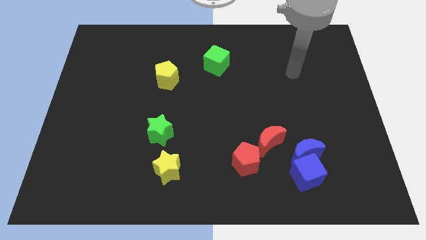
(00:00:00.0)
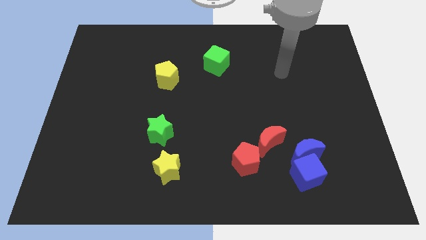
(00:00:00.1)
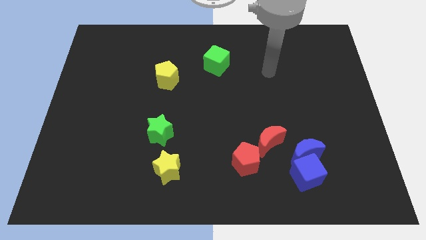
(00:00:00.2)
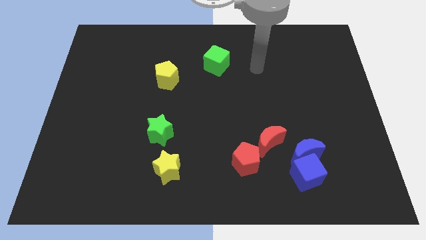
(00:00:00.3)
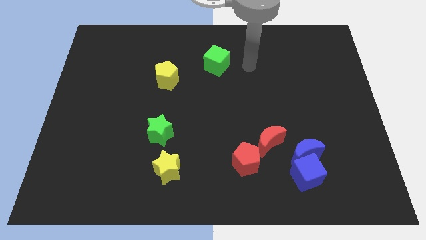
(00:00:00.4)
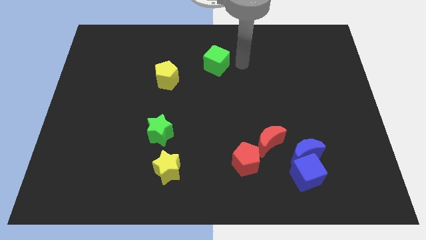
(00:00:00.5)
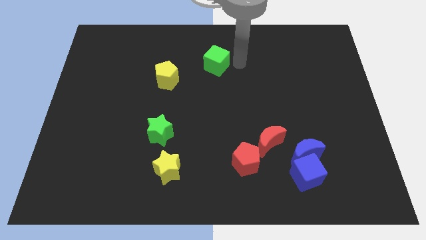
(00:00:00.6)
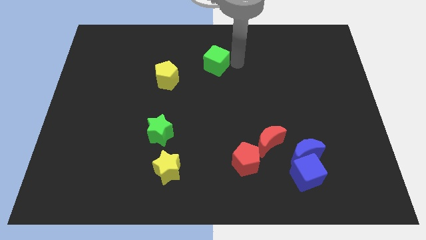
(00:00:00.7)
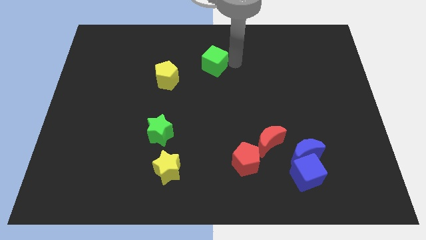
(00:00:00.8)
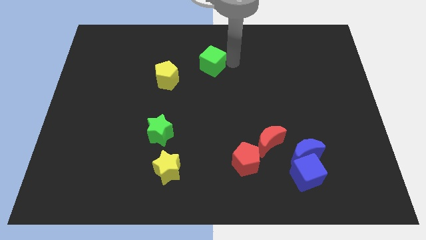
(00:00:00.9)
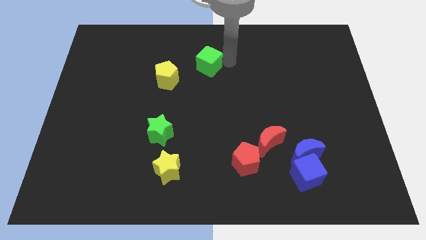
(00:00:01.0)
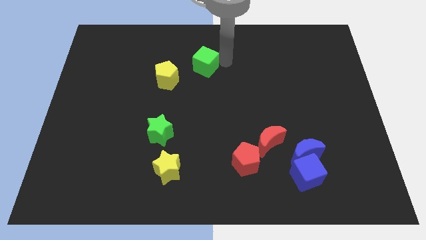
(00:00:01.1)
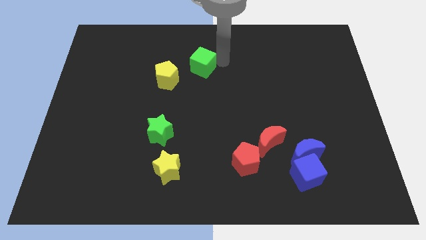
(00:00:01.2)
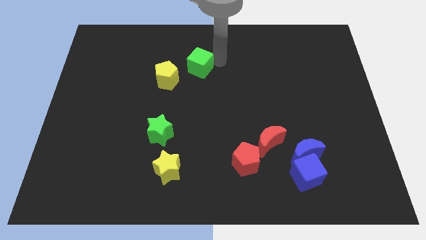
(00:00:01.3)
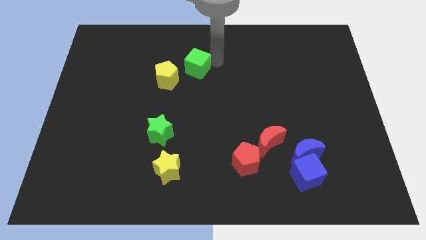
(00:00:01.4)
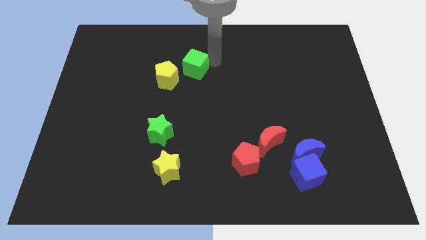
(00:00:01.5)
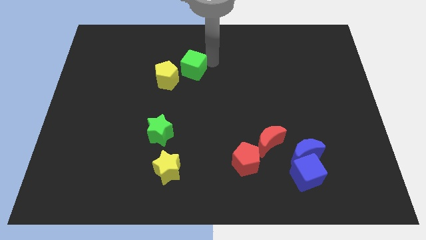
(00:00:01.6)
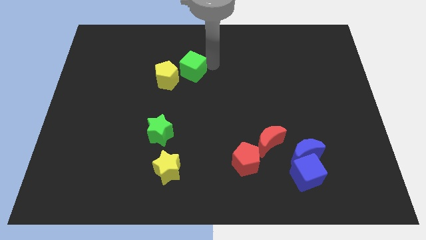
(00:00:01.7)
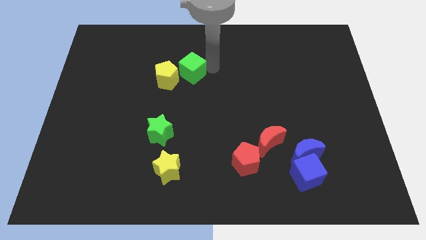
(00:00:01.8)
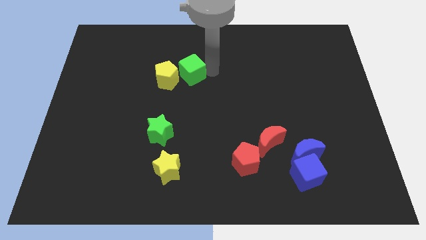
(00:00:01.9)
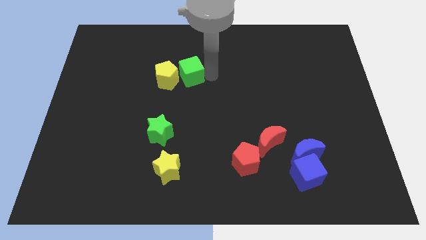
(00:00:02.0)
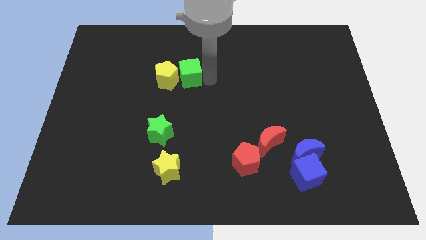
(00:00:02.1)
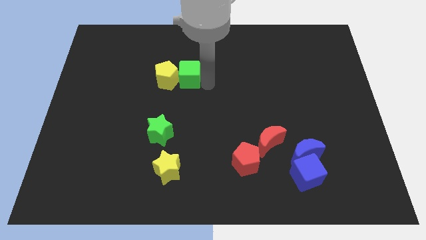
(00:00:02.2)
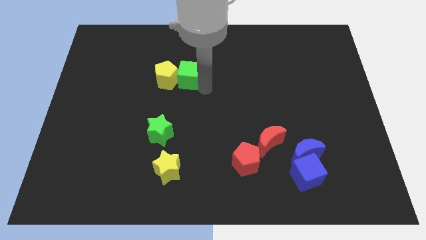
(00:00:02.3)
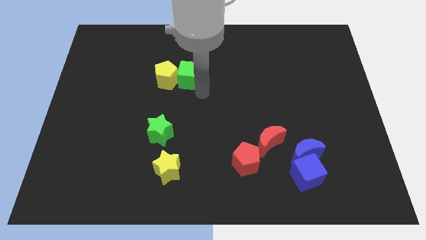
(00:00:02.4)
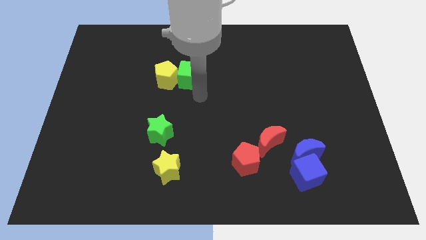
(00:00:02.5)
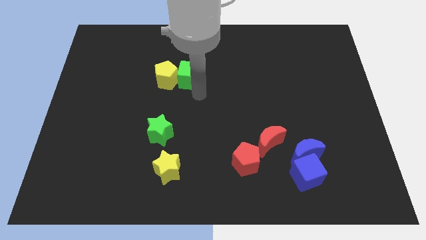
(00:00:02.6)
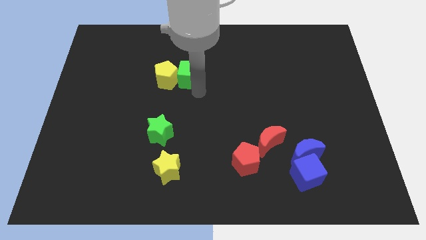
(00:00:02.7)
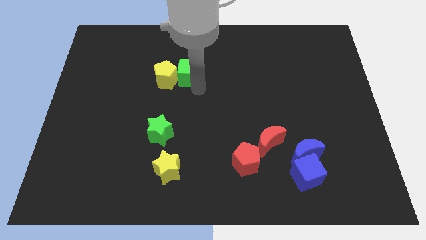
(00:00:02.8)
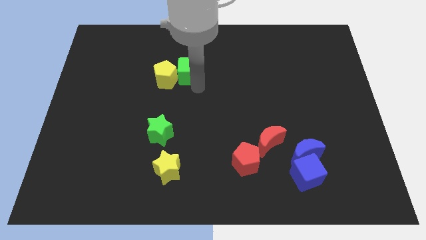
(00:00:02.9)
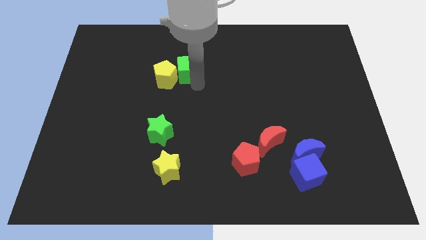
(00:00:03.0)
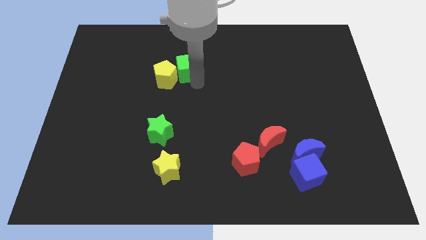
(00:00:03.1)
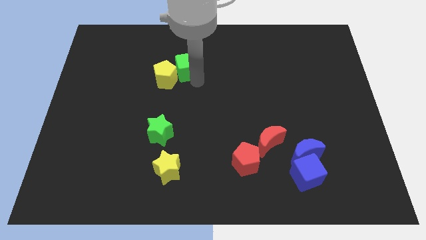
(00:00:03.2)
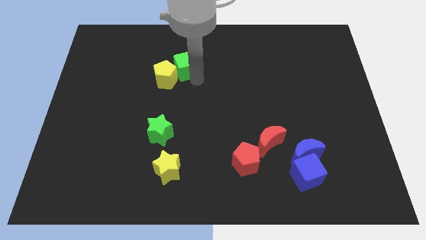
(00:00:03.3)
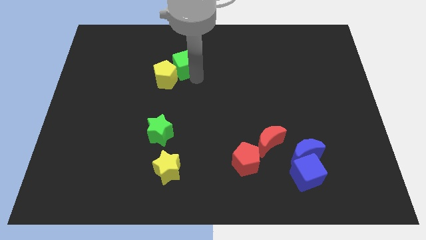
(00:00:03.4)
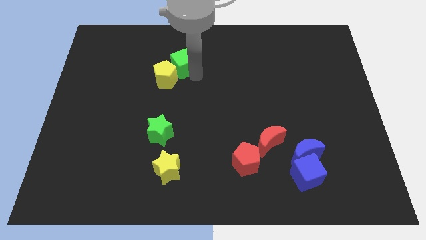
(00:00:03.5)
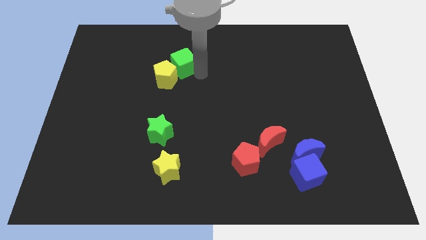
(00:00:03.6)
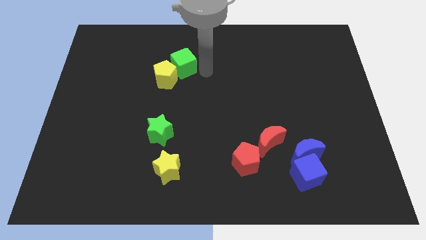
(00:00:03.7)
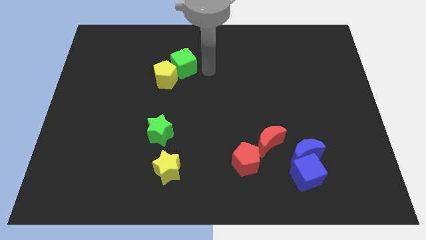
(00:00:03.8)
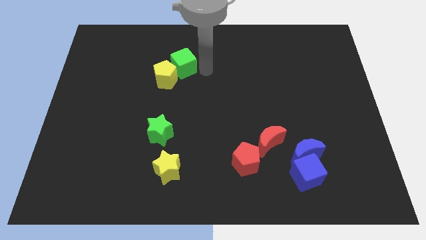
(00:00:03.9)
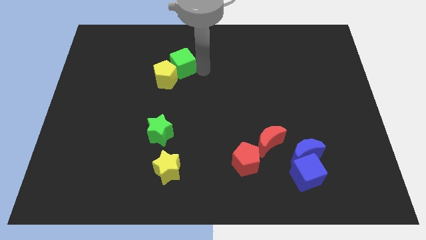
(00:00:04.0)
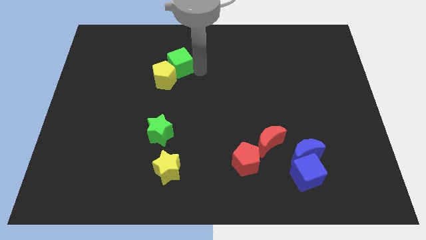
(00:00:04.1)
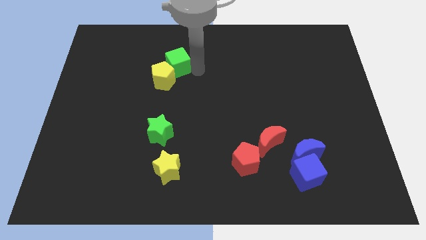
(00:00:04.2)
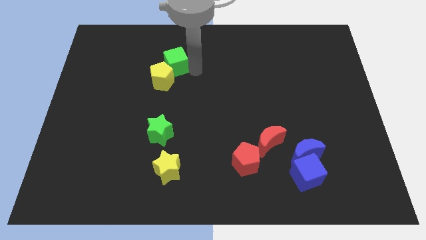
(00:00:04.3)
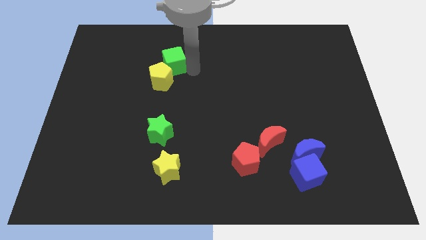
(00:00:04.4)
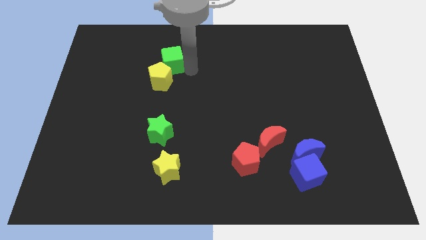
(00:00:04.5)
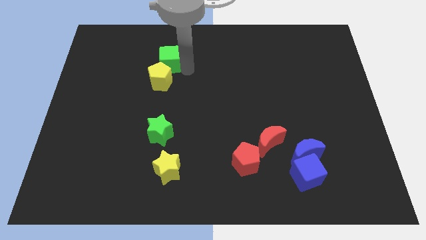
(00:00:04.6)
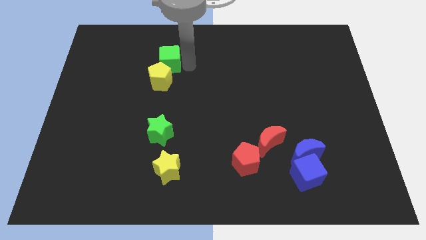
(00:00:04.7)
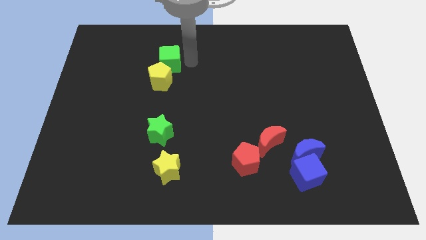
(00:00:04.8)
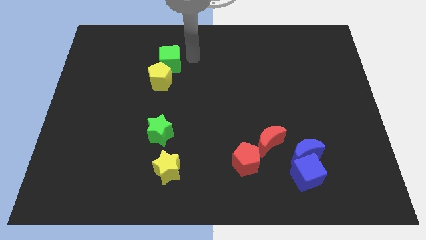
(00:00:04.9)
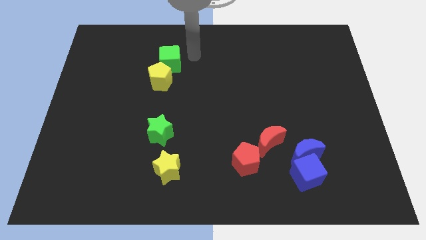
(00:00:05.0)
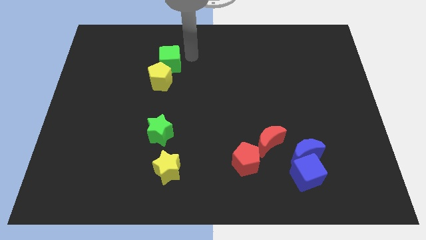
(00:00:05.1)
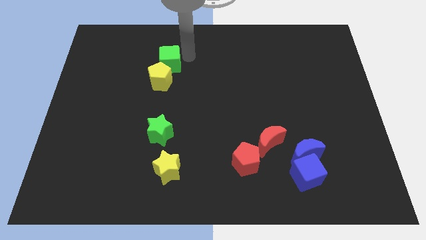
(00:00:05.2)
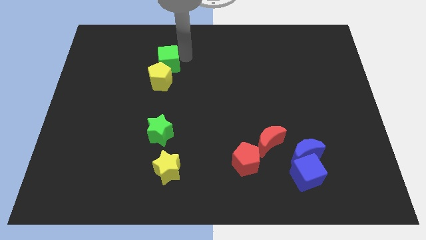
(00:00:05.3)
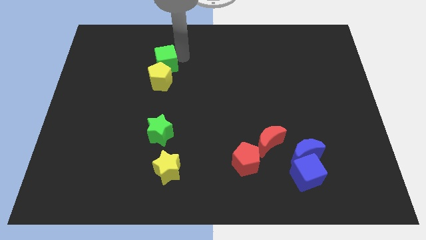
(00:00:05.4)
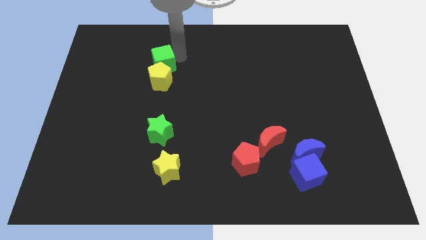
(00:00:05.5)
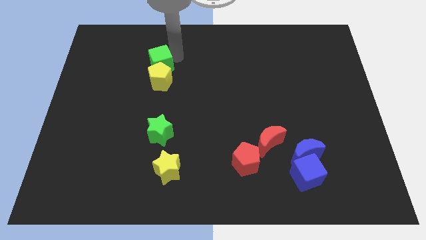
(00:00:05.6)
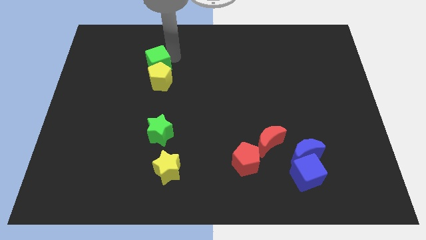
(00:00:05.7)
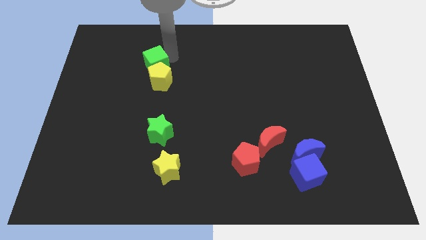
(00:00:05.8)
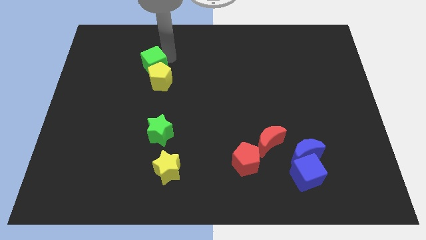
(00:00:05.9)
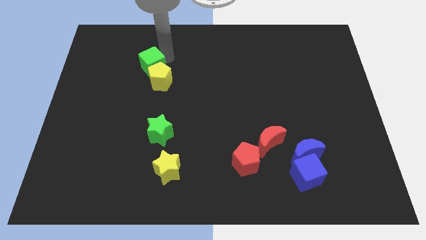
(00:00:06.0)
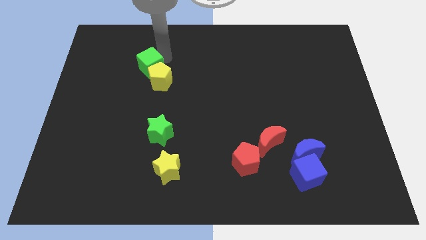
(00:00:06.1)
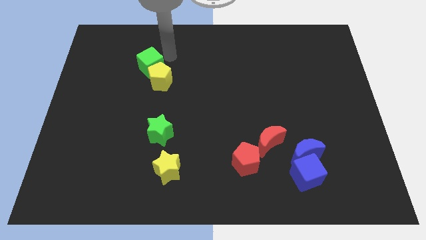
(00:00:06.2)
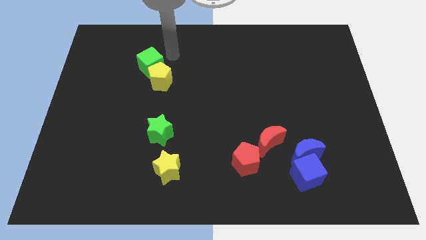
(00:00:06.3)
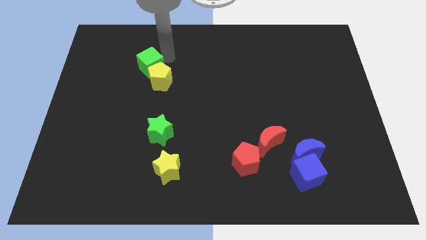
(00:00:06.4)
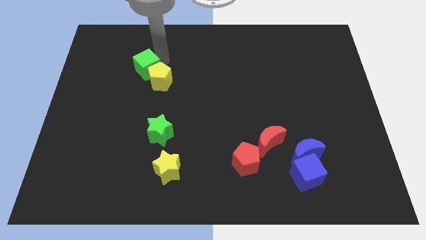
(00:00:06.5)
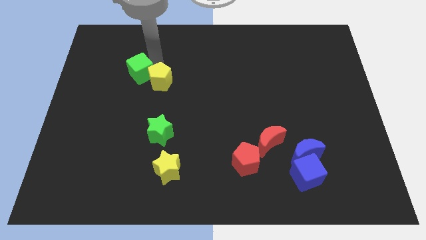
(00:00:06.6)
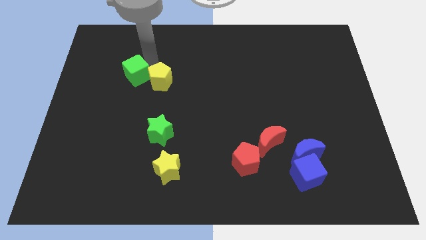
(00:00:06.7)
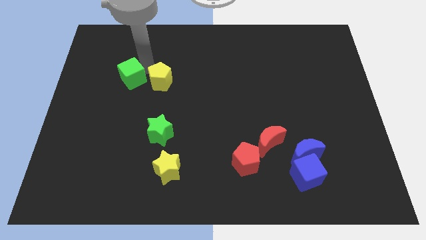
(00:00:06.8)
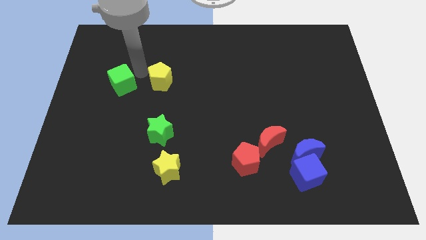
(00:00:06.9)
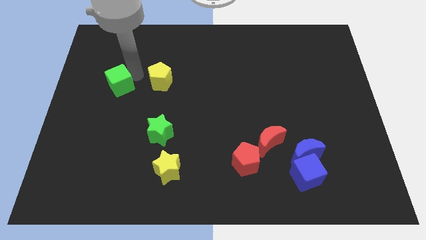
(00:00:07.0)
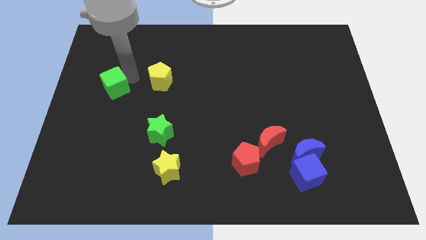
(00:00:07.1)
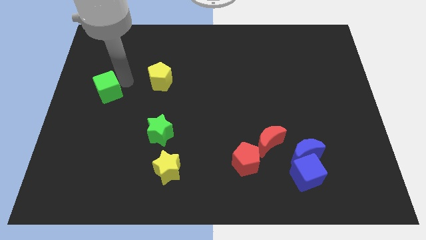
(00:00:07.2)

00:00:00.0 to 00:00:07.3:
push the green cube to the left side
